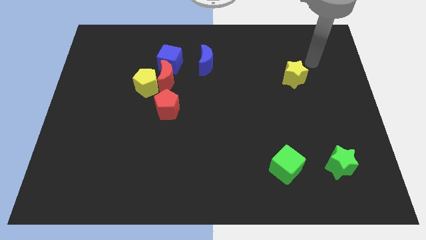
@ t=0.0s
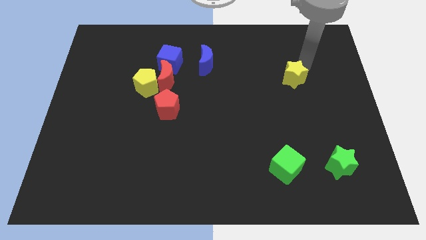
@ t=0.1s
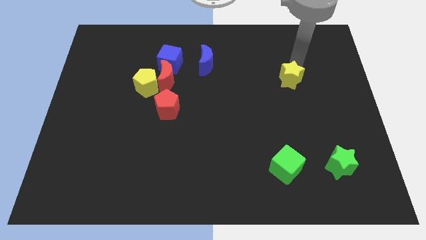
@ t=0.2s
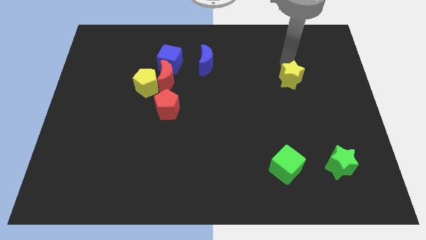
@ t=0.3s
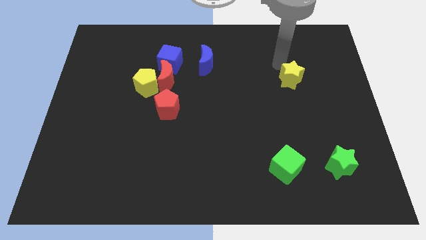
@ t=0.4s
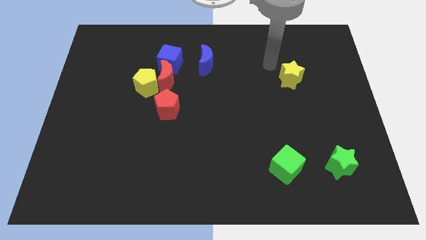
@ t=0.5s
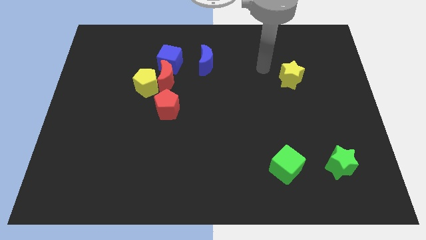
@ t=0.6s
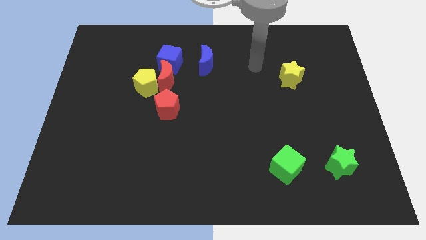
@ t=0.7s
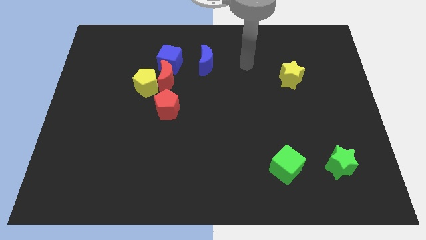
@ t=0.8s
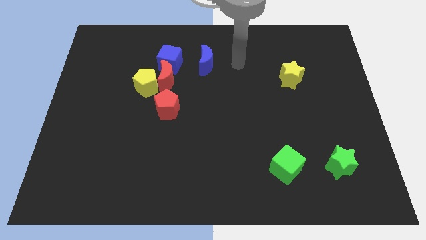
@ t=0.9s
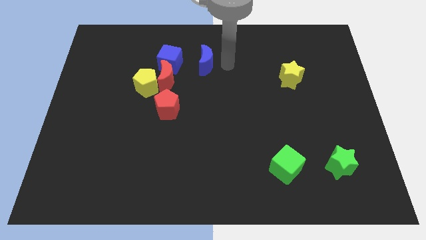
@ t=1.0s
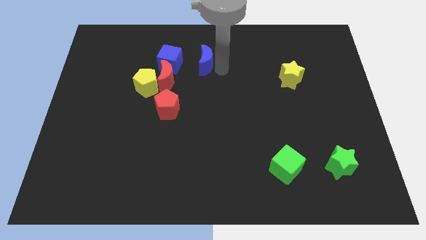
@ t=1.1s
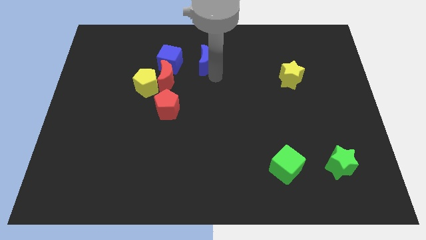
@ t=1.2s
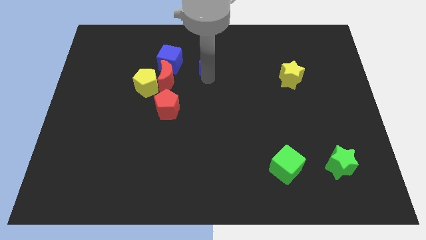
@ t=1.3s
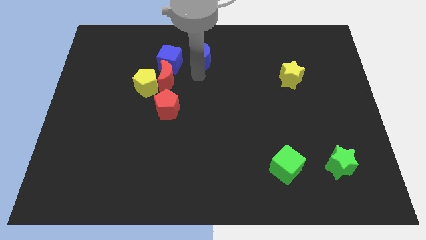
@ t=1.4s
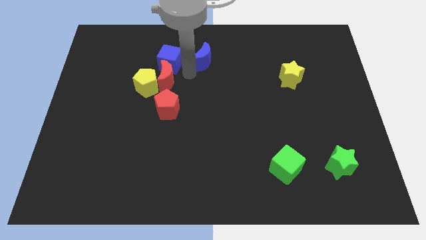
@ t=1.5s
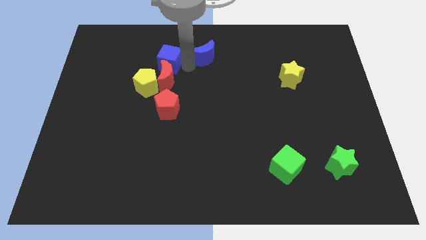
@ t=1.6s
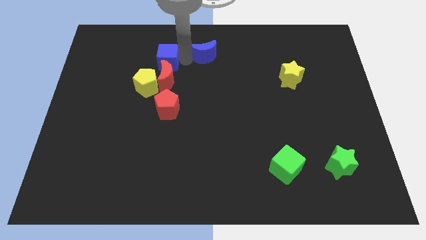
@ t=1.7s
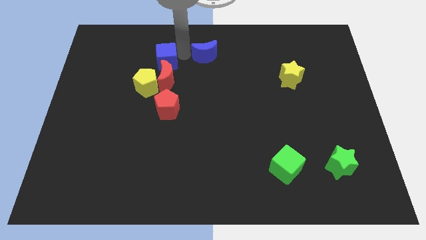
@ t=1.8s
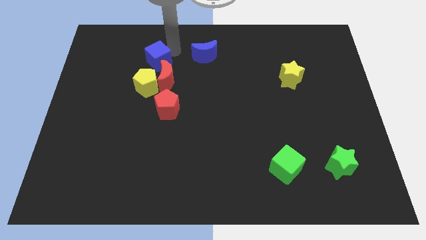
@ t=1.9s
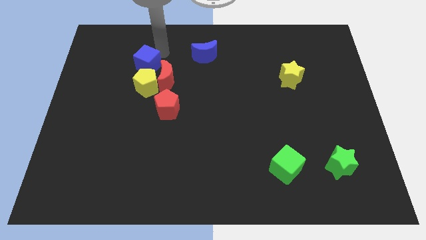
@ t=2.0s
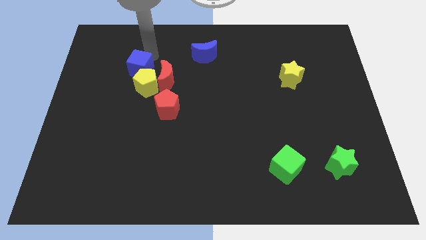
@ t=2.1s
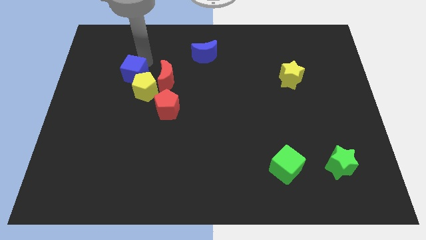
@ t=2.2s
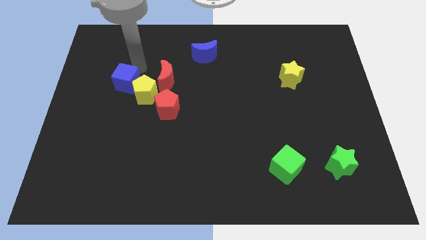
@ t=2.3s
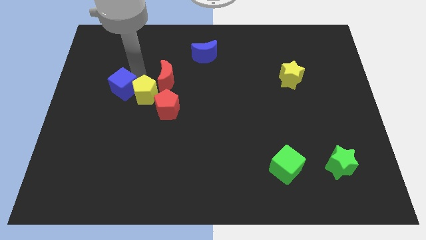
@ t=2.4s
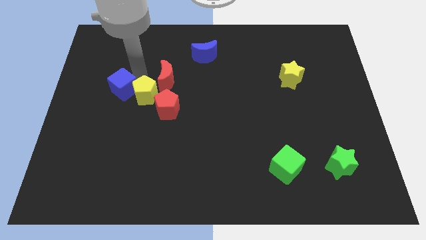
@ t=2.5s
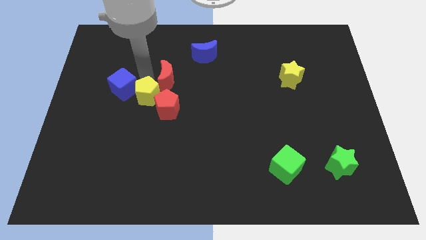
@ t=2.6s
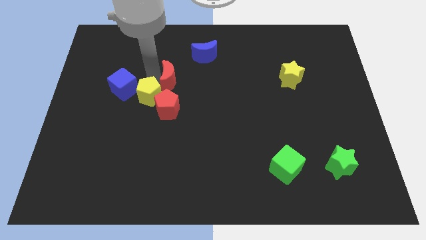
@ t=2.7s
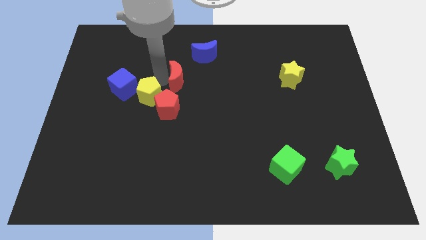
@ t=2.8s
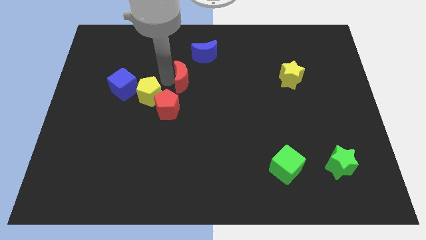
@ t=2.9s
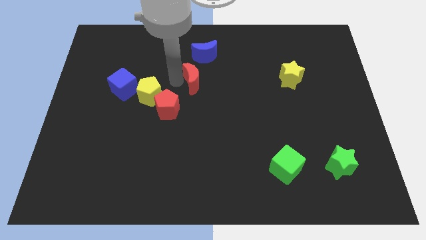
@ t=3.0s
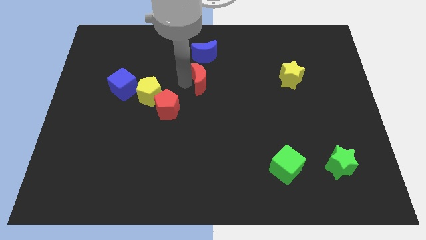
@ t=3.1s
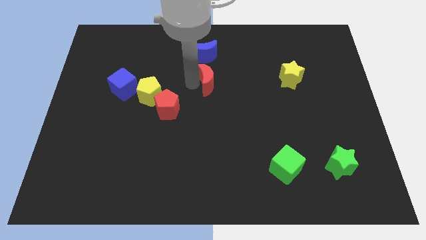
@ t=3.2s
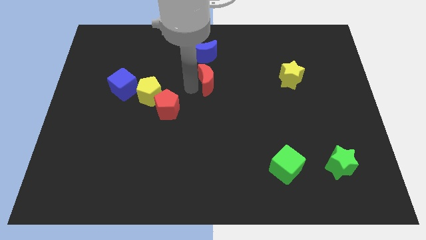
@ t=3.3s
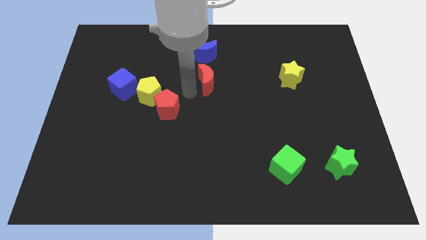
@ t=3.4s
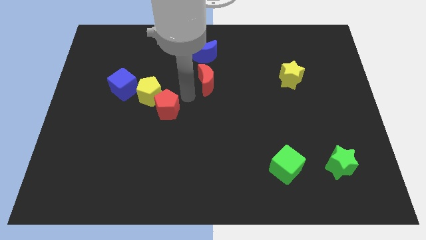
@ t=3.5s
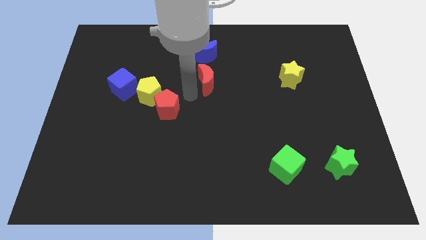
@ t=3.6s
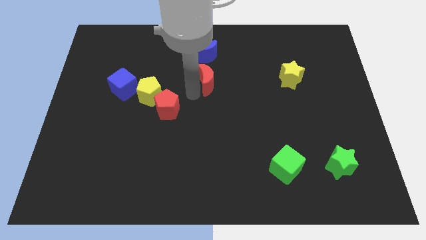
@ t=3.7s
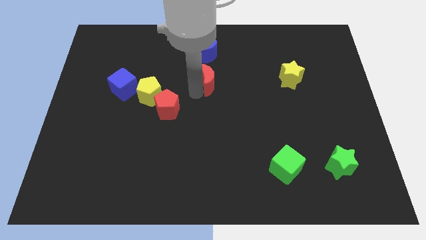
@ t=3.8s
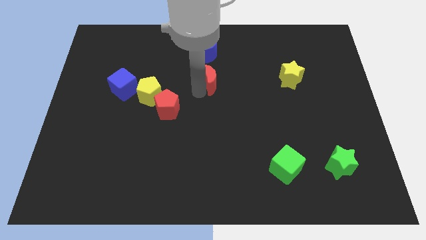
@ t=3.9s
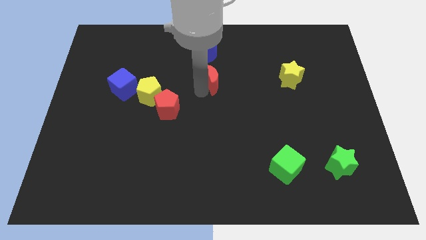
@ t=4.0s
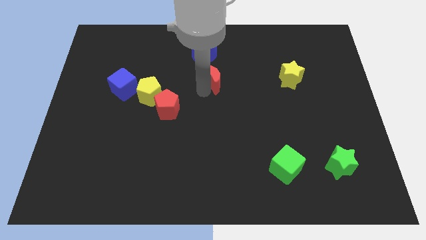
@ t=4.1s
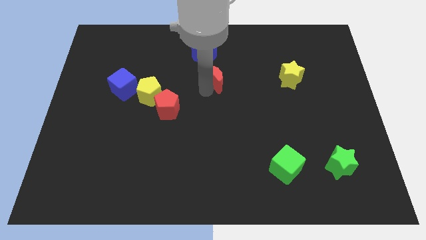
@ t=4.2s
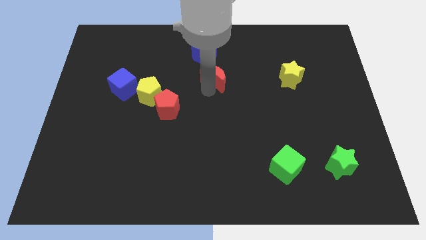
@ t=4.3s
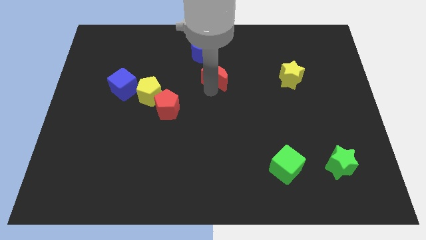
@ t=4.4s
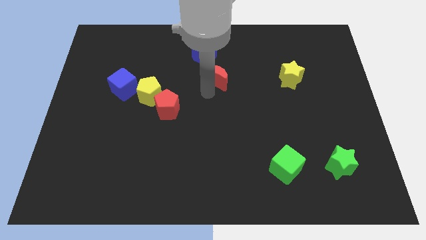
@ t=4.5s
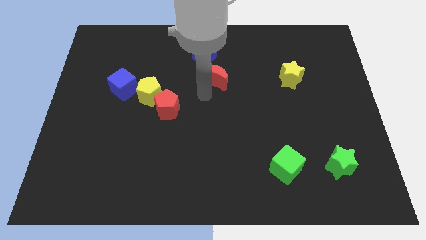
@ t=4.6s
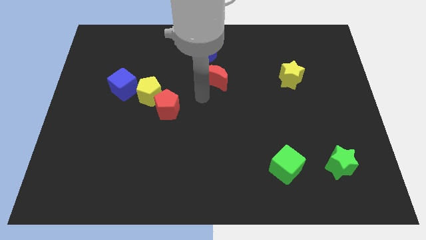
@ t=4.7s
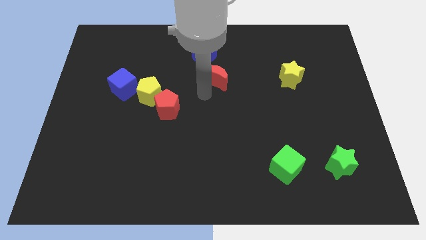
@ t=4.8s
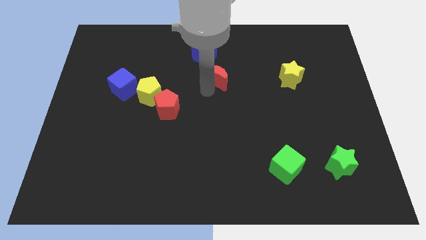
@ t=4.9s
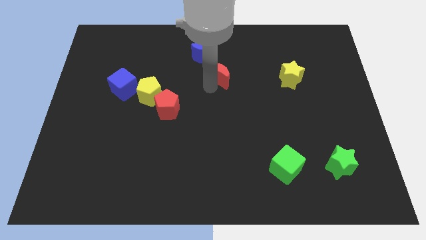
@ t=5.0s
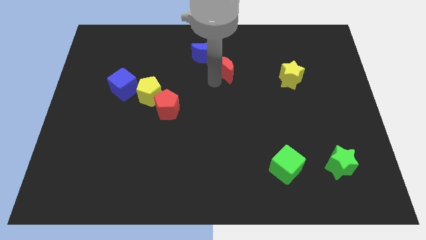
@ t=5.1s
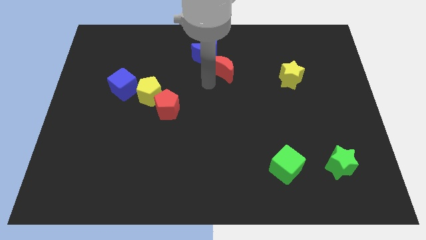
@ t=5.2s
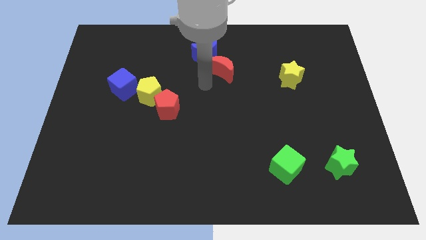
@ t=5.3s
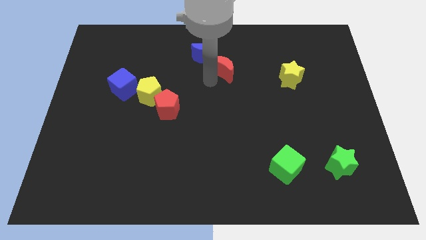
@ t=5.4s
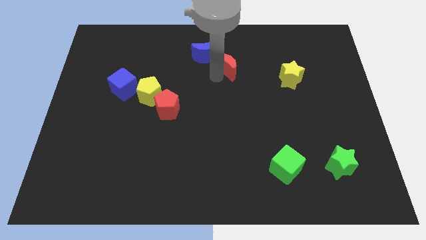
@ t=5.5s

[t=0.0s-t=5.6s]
slide the red moon right of the blue moon

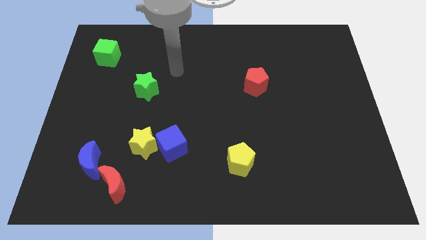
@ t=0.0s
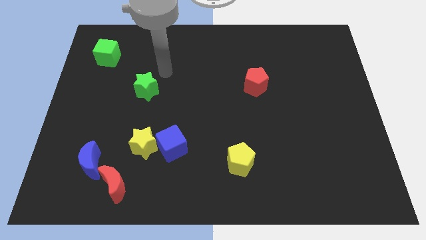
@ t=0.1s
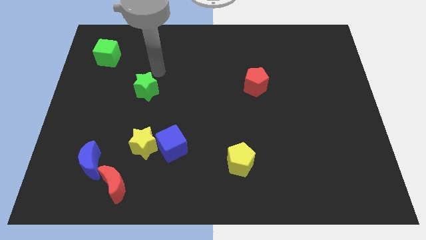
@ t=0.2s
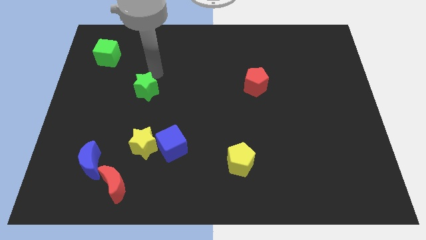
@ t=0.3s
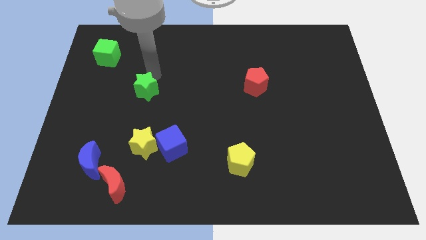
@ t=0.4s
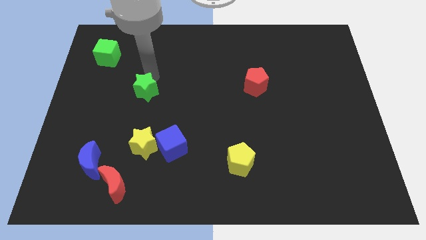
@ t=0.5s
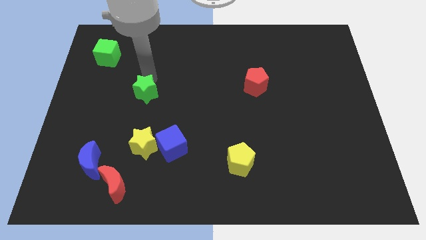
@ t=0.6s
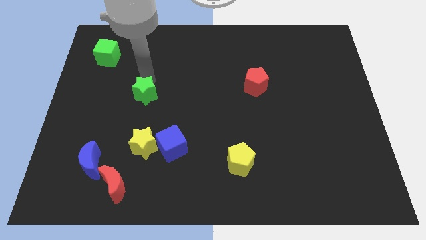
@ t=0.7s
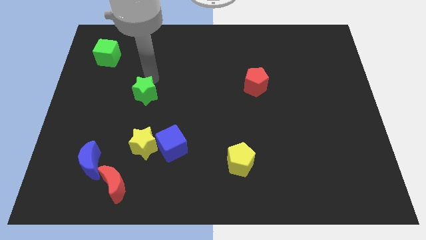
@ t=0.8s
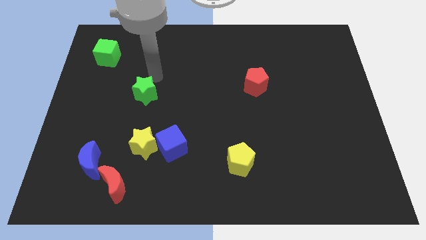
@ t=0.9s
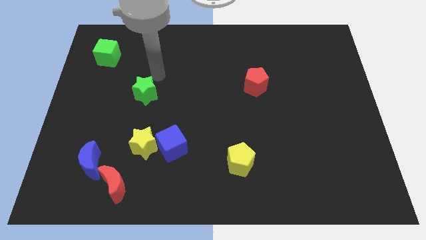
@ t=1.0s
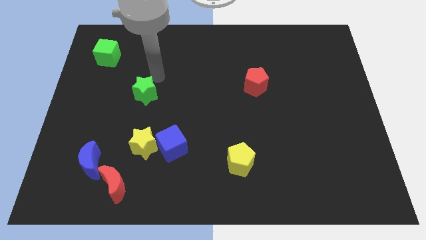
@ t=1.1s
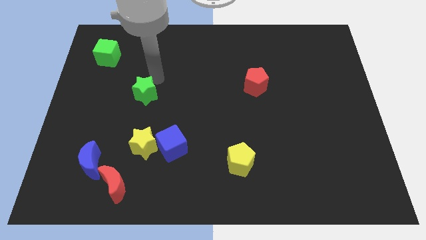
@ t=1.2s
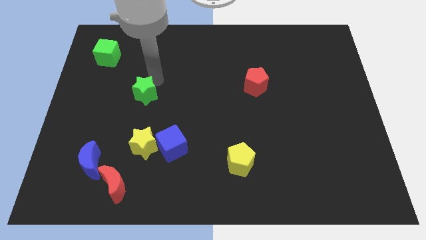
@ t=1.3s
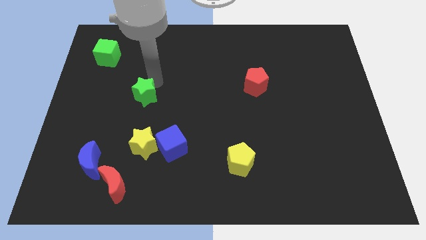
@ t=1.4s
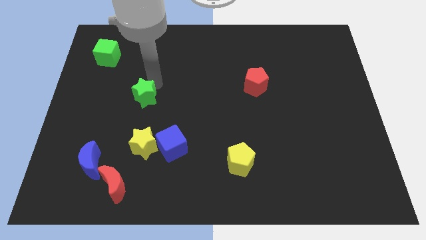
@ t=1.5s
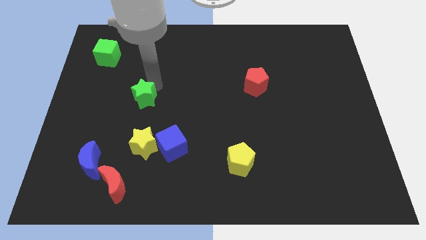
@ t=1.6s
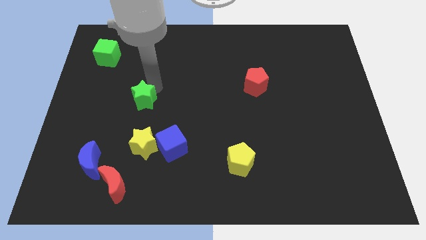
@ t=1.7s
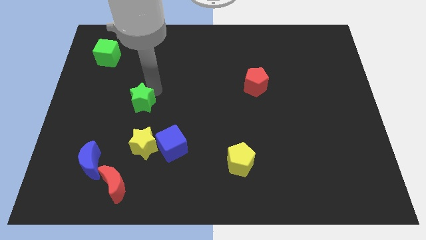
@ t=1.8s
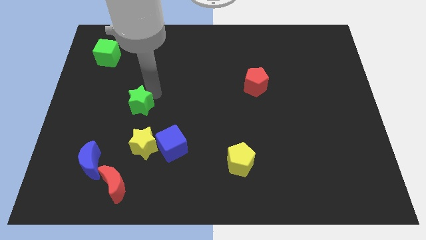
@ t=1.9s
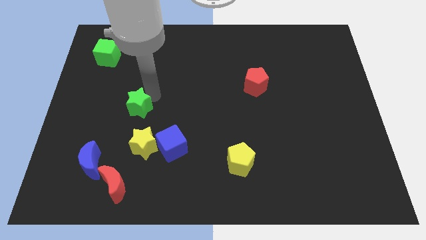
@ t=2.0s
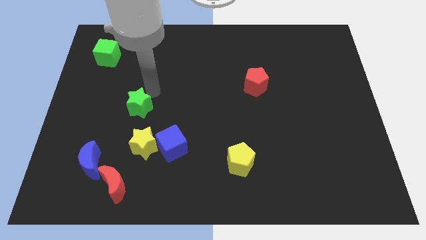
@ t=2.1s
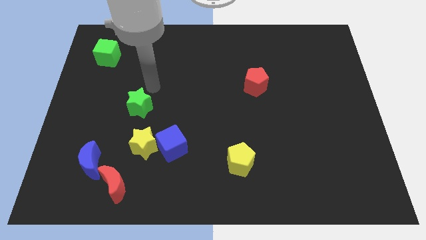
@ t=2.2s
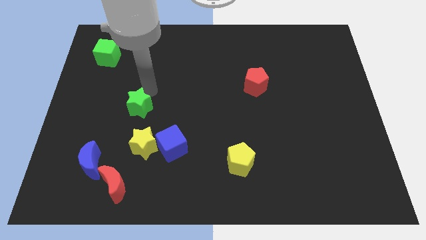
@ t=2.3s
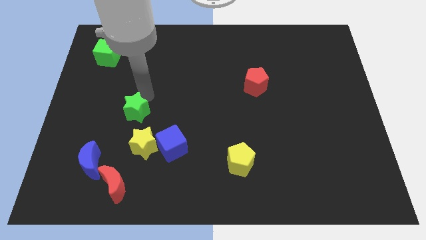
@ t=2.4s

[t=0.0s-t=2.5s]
slide the green star to the top left side of the yellow star
